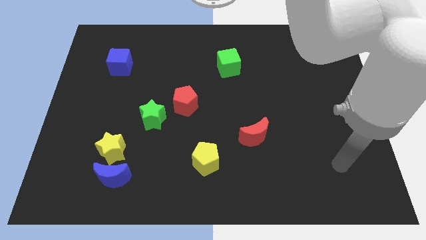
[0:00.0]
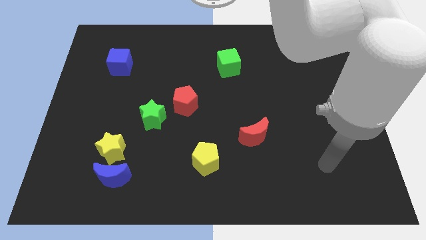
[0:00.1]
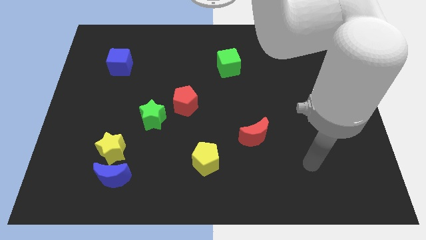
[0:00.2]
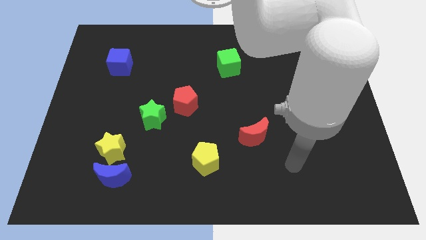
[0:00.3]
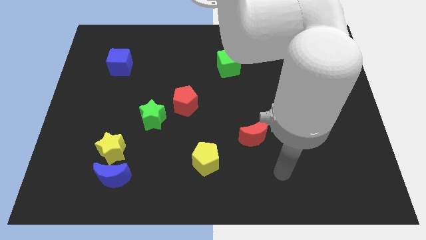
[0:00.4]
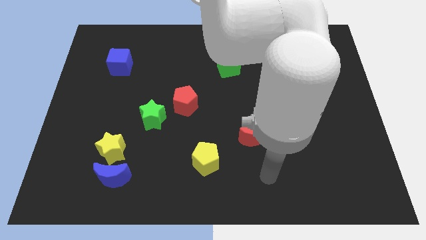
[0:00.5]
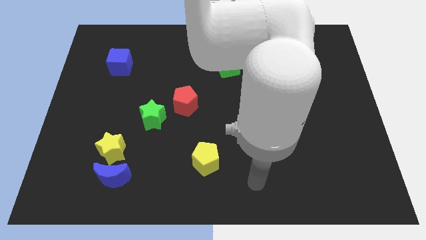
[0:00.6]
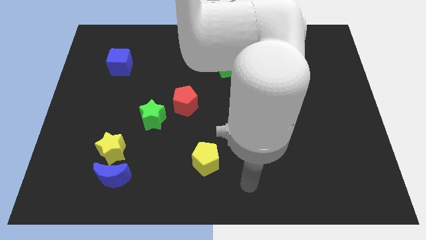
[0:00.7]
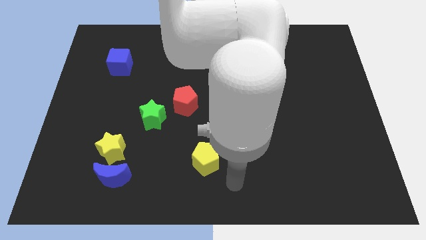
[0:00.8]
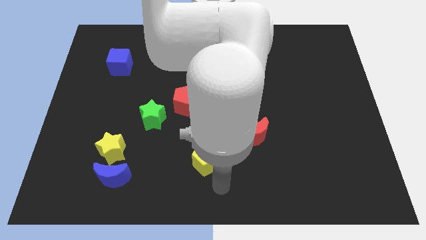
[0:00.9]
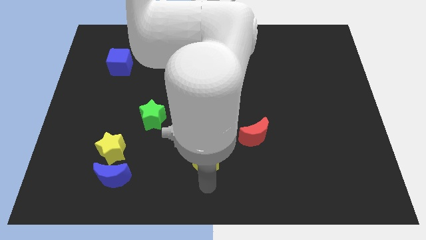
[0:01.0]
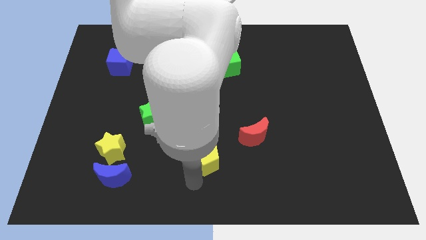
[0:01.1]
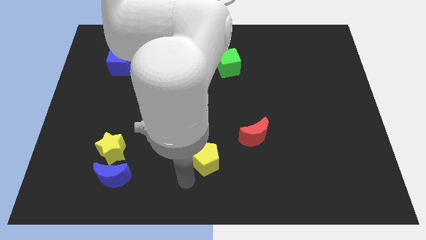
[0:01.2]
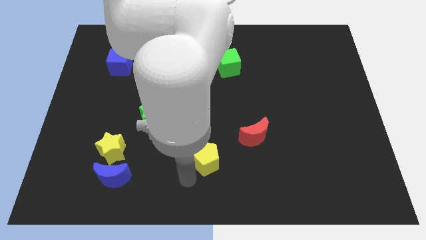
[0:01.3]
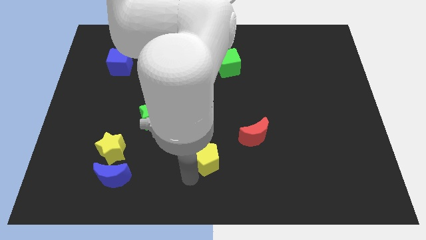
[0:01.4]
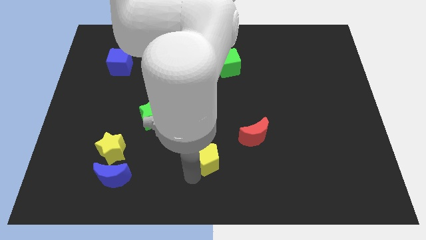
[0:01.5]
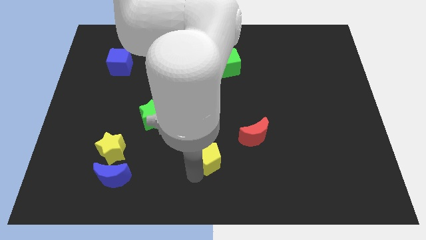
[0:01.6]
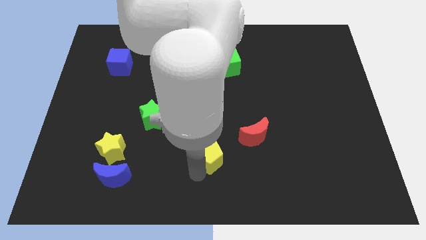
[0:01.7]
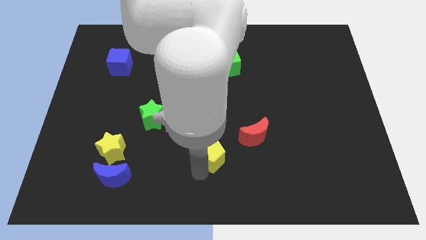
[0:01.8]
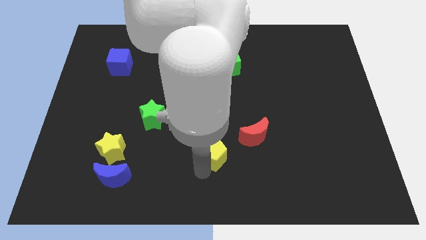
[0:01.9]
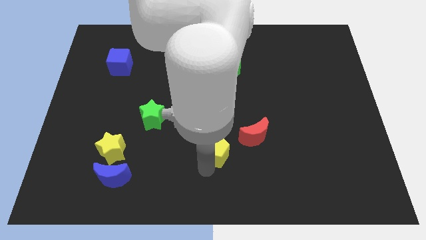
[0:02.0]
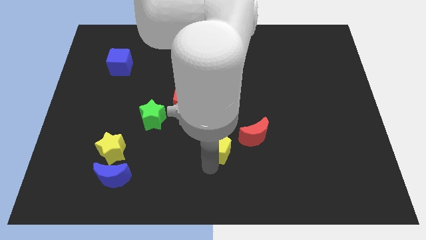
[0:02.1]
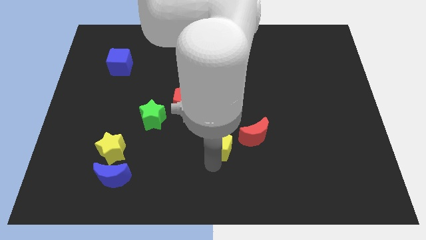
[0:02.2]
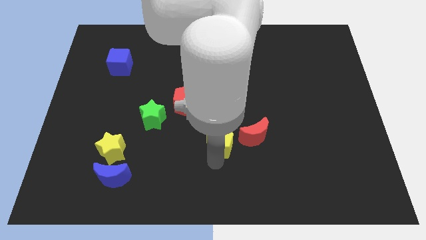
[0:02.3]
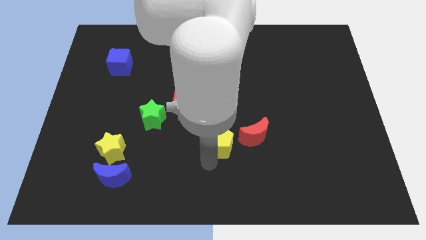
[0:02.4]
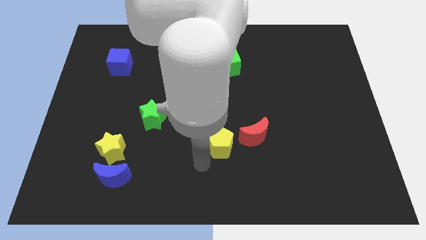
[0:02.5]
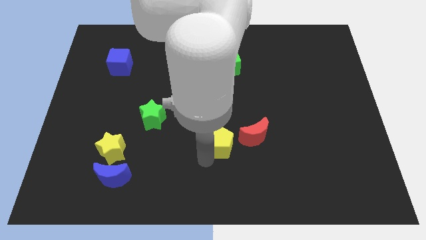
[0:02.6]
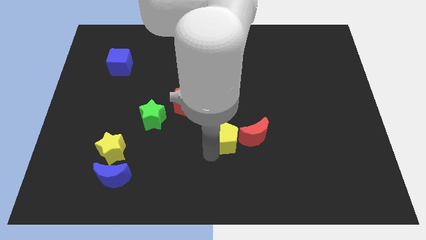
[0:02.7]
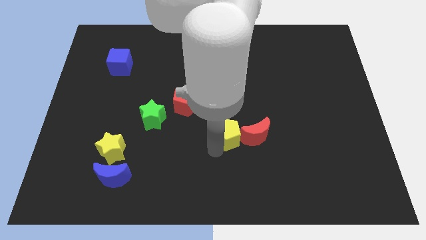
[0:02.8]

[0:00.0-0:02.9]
move the yellow pentagon diagonally up and to the right slightly

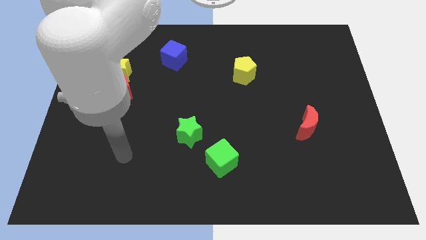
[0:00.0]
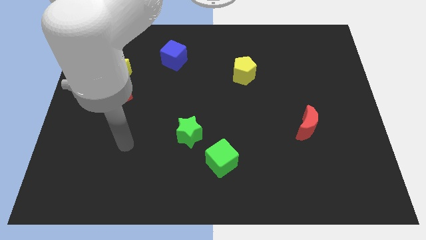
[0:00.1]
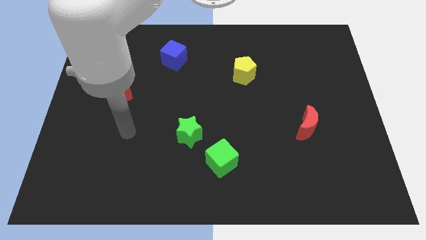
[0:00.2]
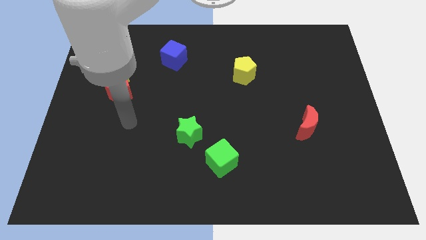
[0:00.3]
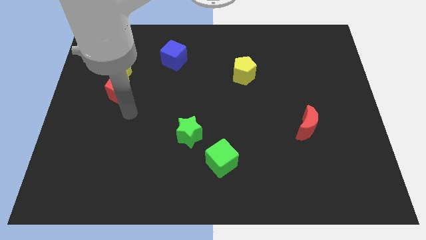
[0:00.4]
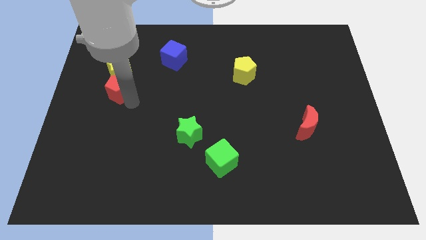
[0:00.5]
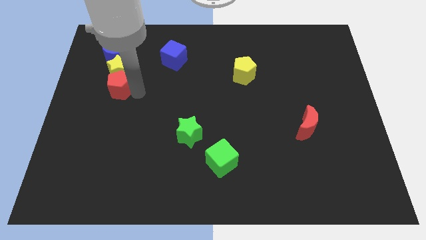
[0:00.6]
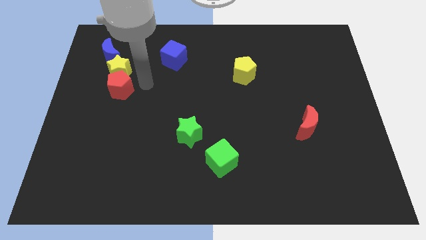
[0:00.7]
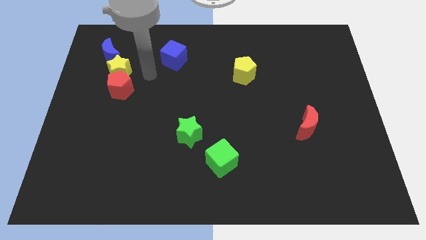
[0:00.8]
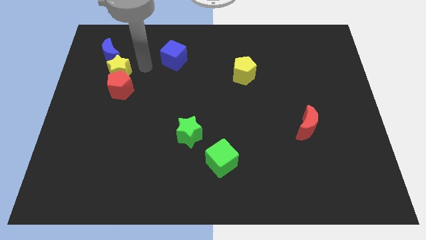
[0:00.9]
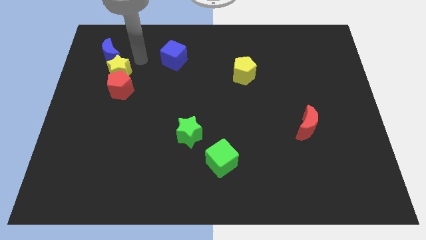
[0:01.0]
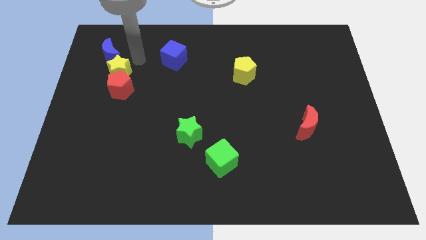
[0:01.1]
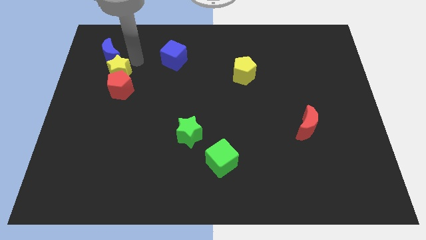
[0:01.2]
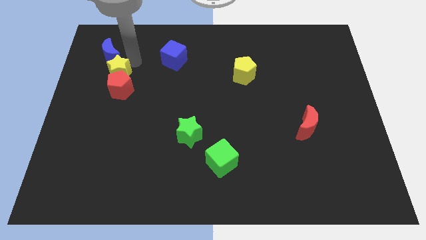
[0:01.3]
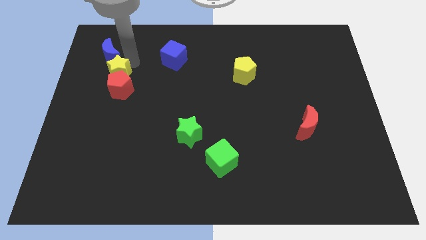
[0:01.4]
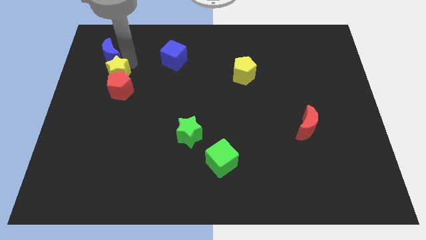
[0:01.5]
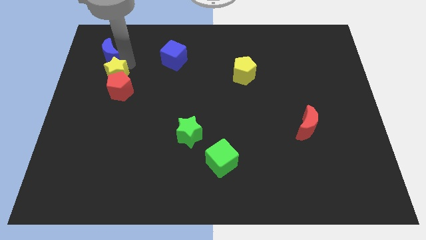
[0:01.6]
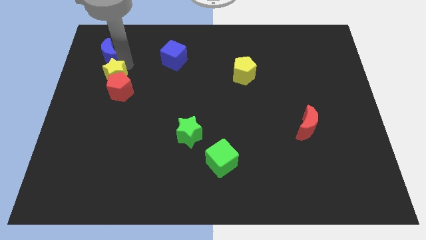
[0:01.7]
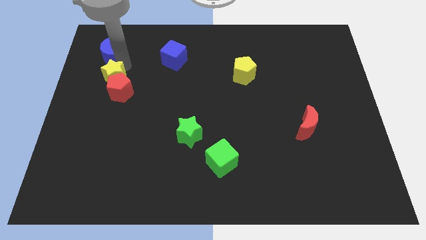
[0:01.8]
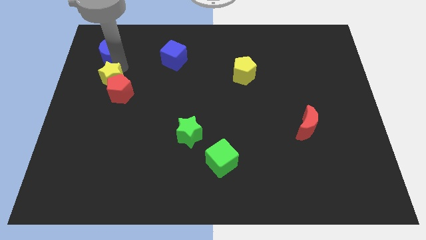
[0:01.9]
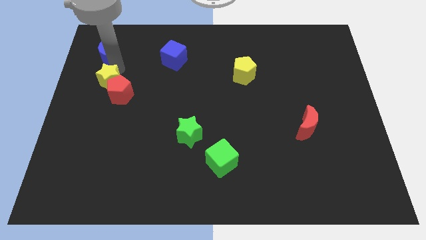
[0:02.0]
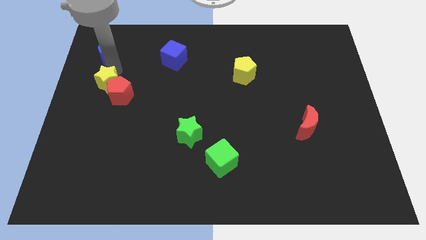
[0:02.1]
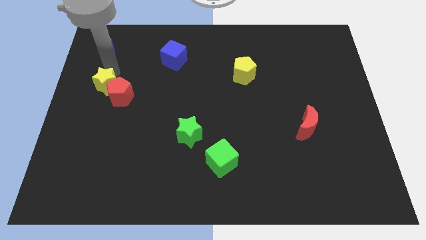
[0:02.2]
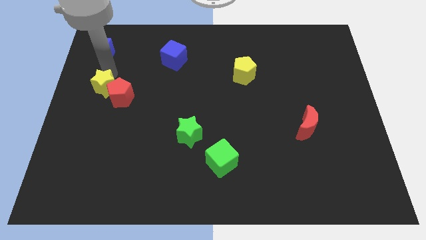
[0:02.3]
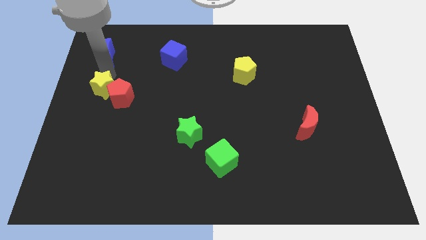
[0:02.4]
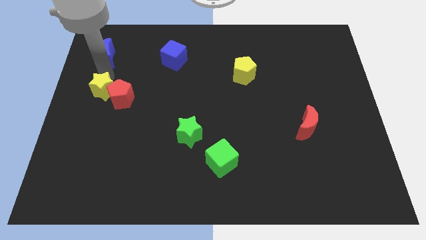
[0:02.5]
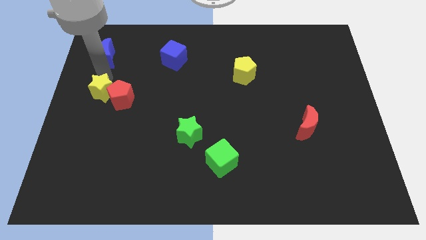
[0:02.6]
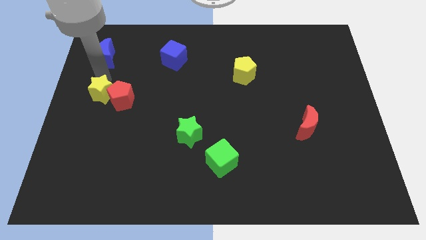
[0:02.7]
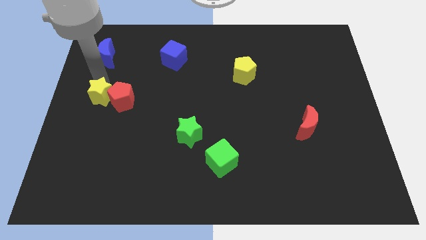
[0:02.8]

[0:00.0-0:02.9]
move the yellow star downwards slightly

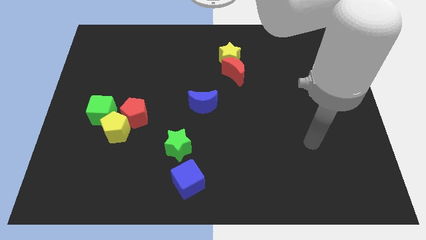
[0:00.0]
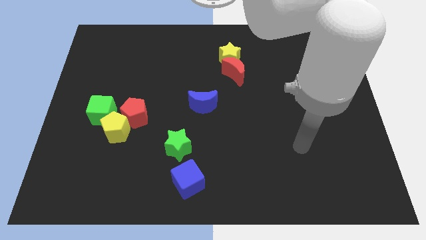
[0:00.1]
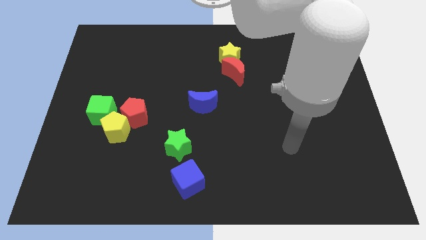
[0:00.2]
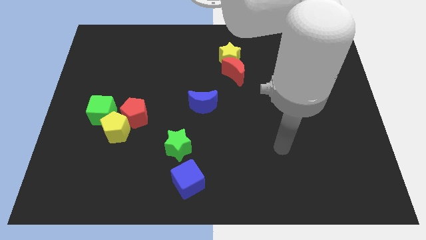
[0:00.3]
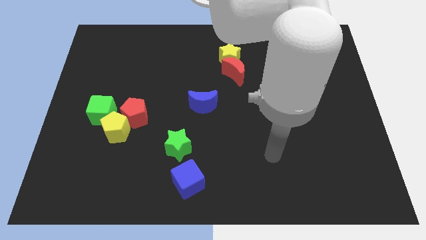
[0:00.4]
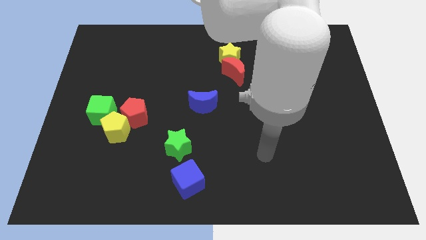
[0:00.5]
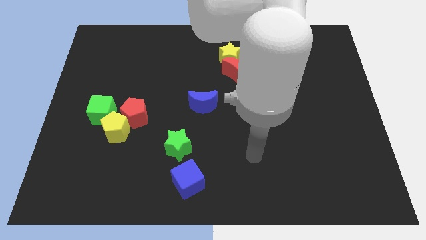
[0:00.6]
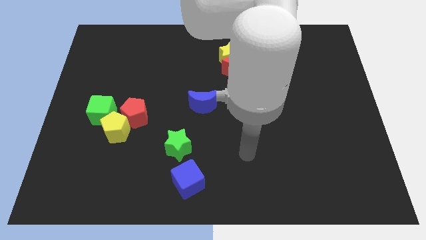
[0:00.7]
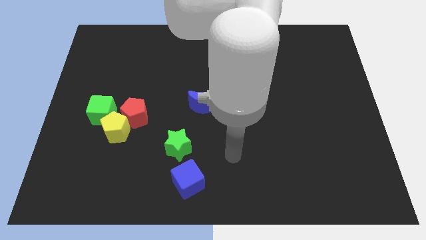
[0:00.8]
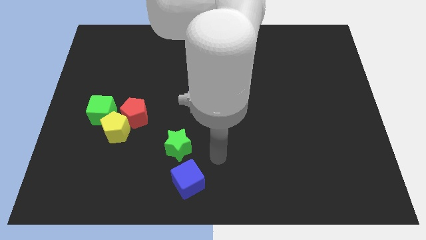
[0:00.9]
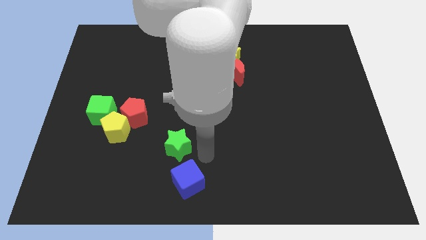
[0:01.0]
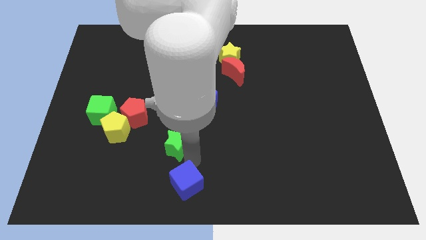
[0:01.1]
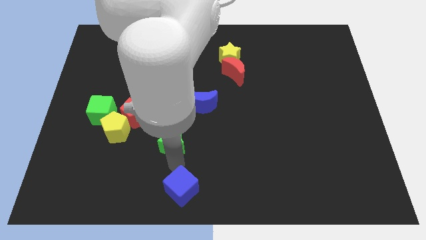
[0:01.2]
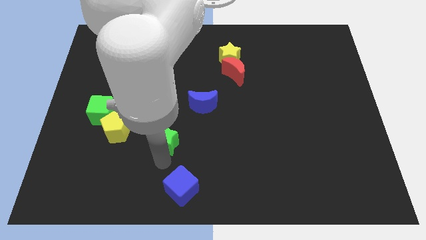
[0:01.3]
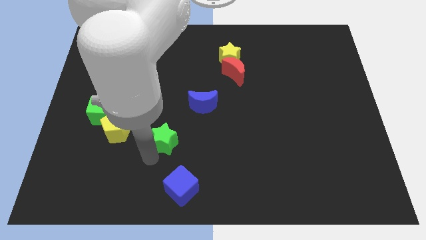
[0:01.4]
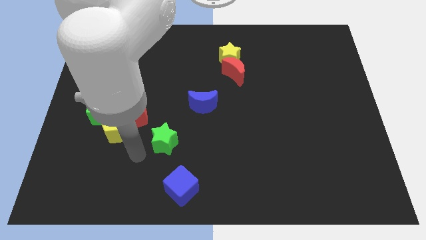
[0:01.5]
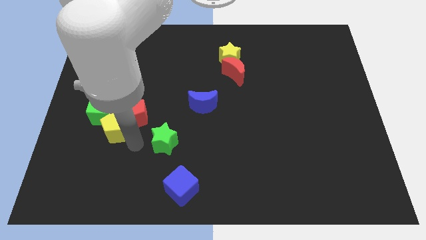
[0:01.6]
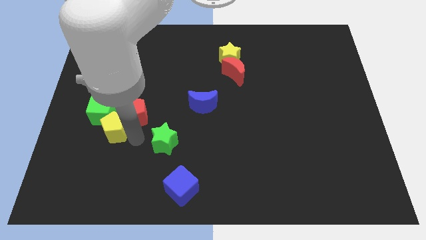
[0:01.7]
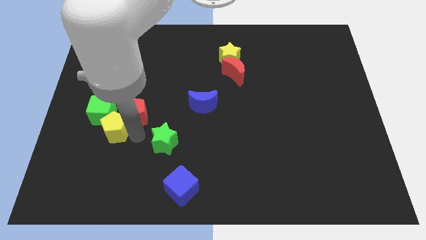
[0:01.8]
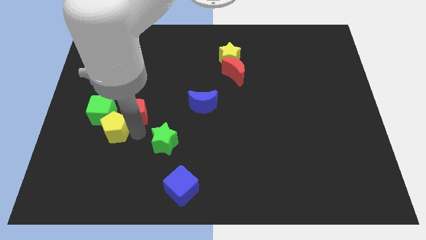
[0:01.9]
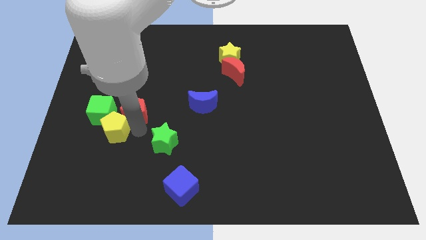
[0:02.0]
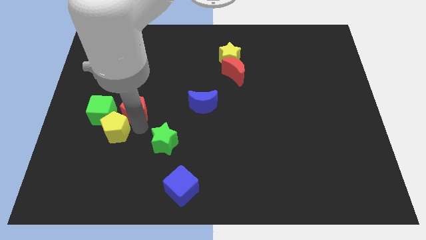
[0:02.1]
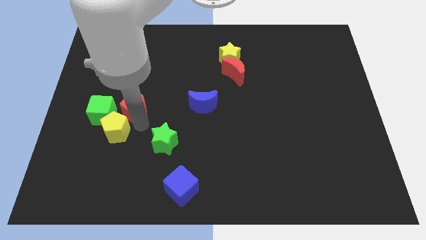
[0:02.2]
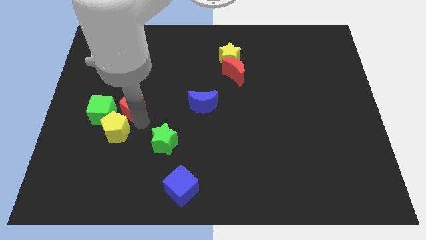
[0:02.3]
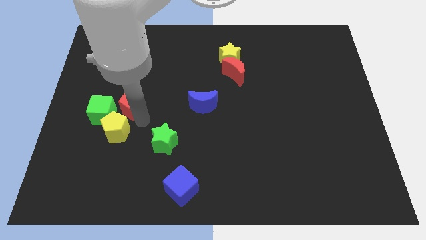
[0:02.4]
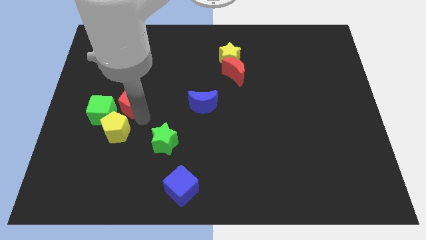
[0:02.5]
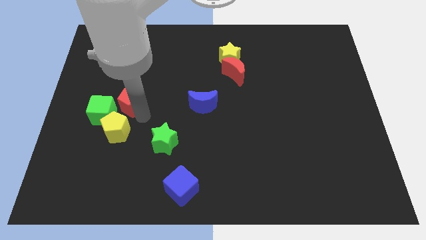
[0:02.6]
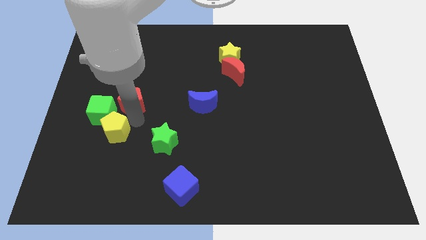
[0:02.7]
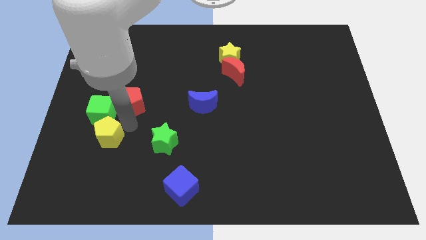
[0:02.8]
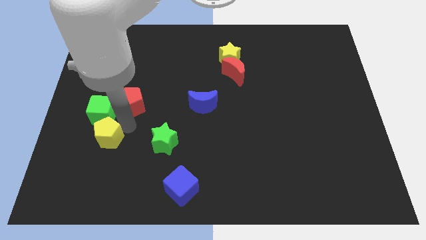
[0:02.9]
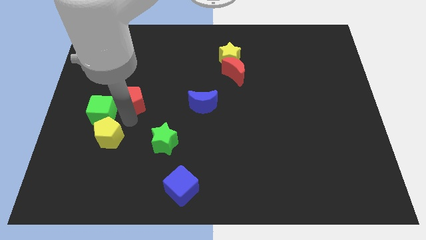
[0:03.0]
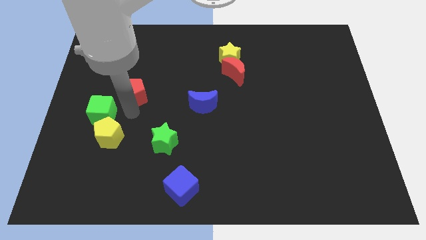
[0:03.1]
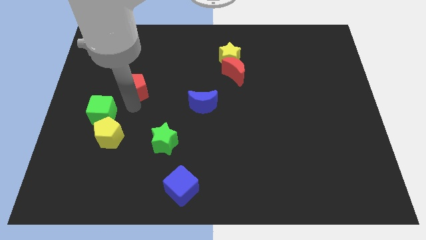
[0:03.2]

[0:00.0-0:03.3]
slide the red pentagon upwards slightly
